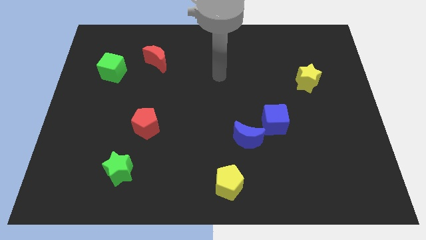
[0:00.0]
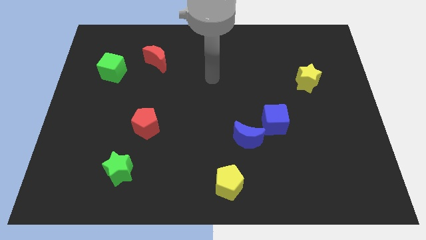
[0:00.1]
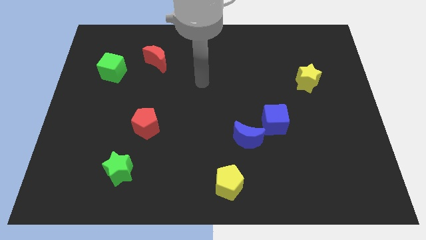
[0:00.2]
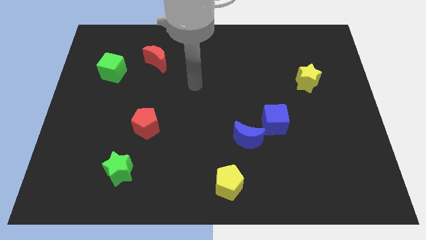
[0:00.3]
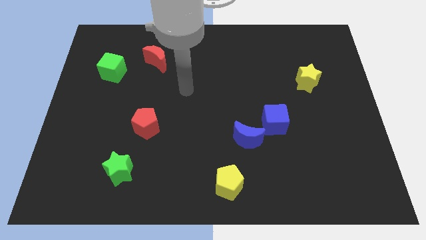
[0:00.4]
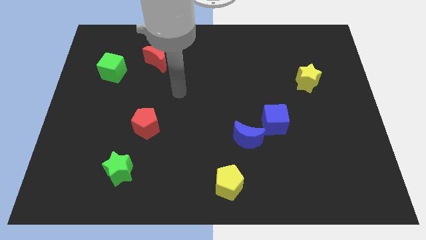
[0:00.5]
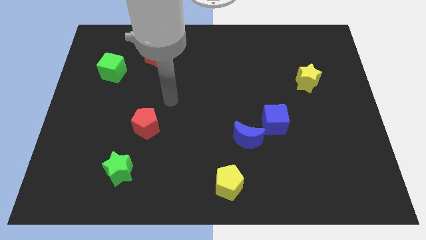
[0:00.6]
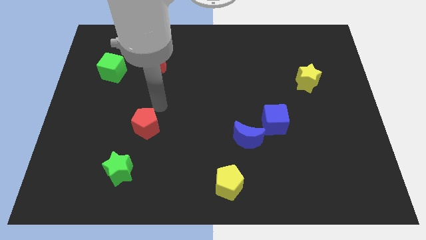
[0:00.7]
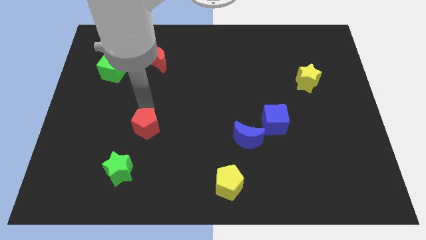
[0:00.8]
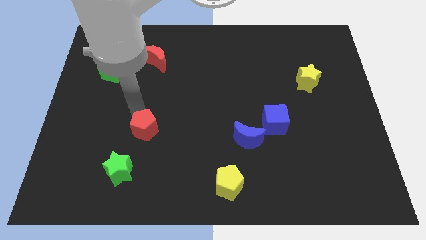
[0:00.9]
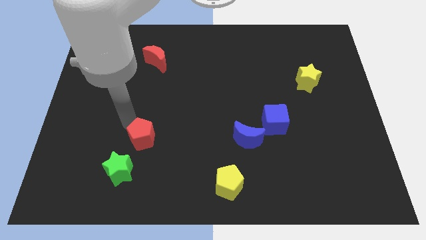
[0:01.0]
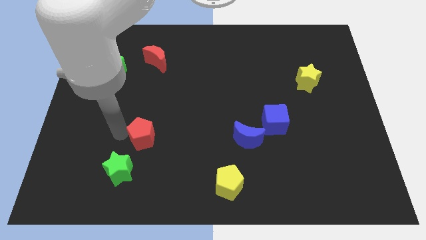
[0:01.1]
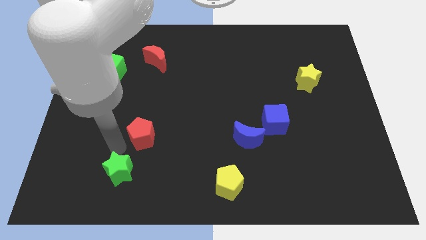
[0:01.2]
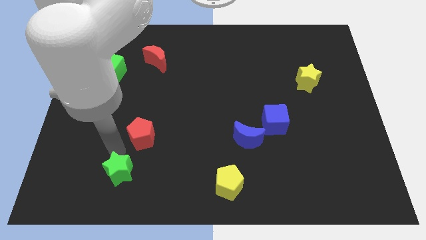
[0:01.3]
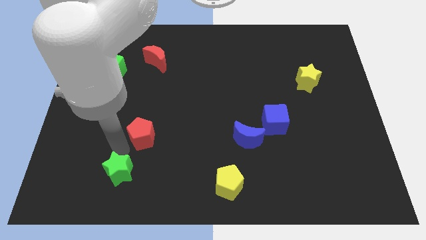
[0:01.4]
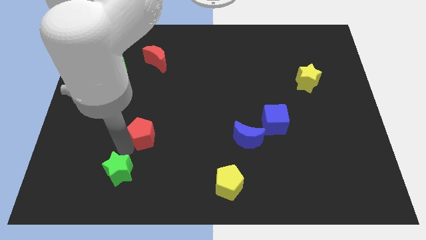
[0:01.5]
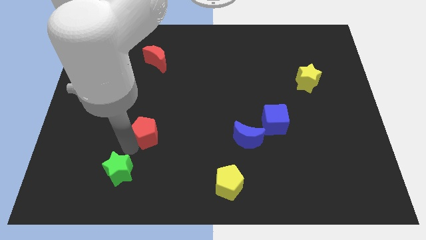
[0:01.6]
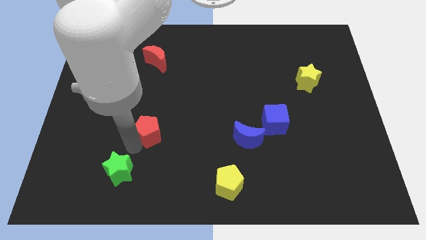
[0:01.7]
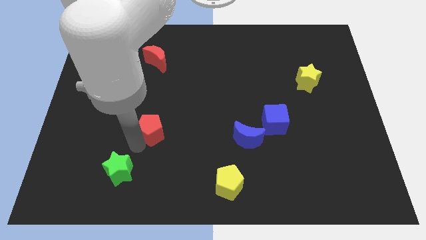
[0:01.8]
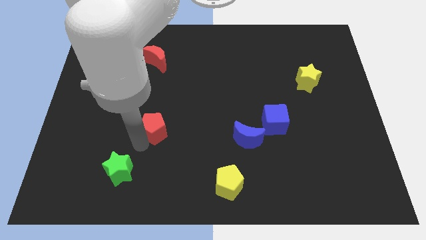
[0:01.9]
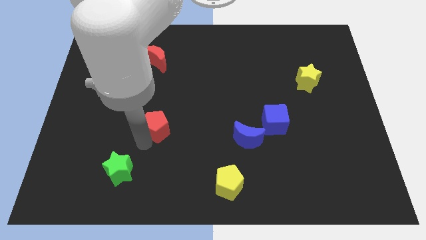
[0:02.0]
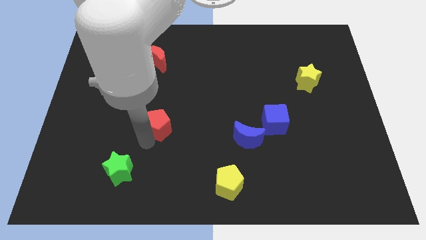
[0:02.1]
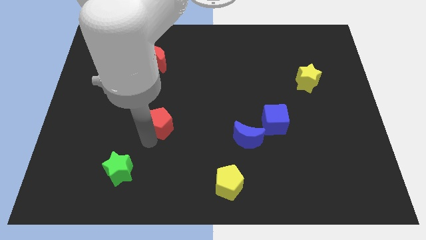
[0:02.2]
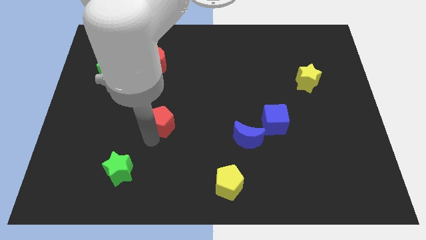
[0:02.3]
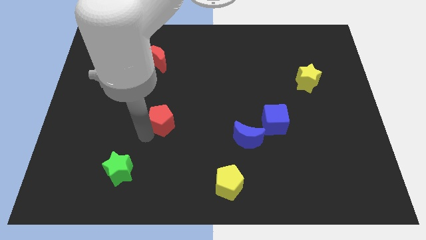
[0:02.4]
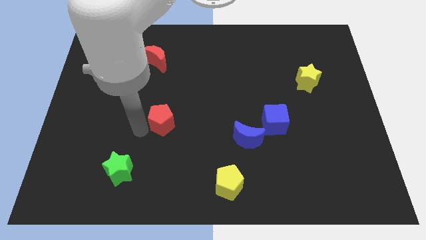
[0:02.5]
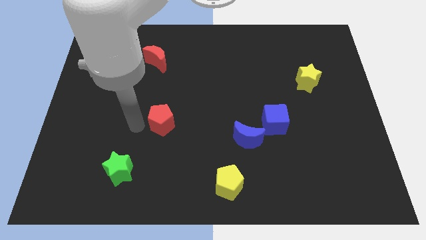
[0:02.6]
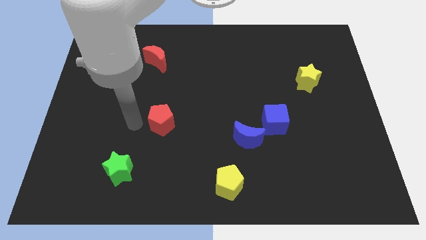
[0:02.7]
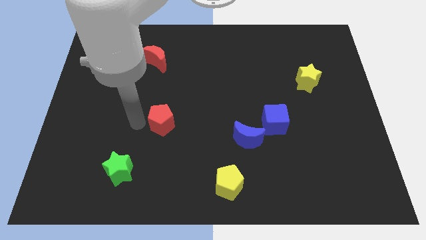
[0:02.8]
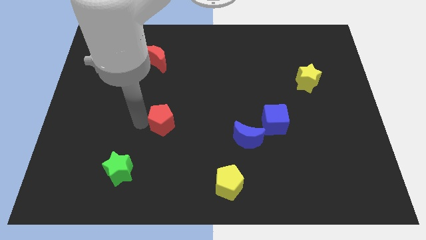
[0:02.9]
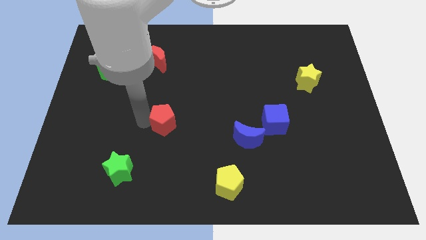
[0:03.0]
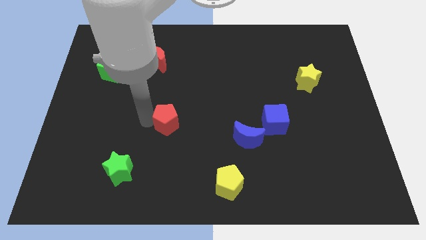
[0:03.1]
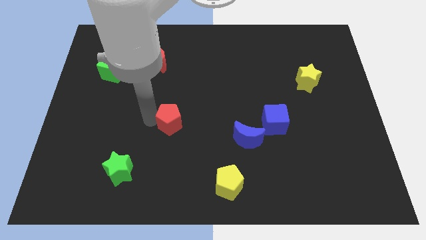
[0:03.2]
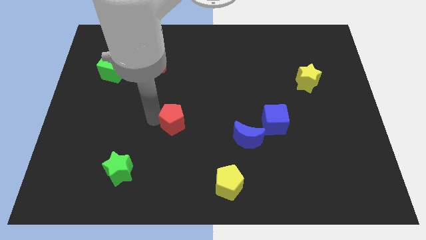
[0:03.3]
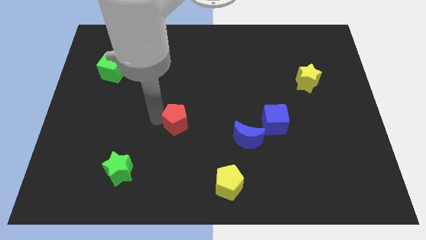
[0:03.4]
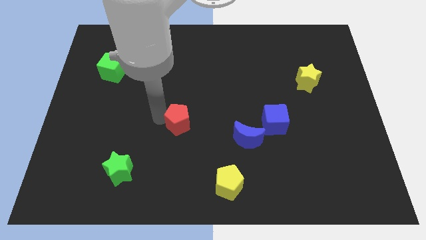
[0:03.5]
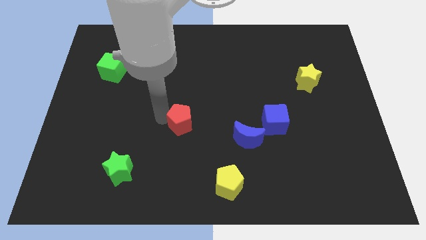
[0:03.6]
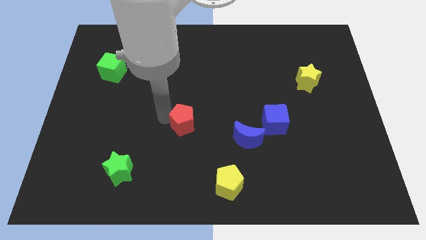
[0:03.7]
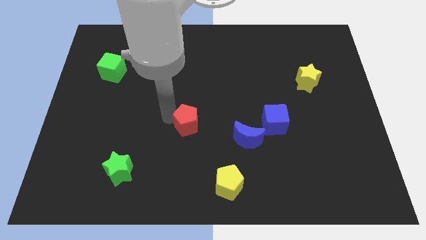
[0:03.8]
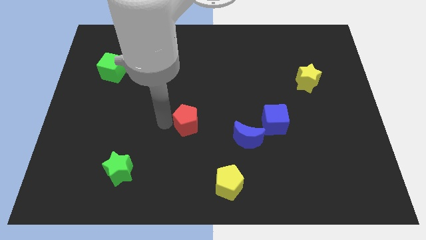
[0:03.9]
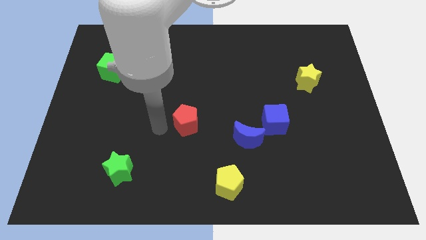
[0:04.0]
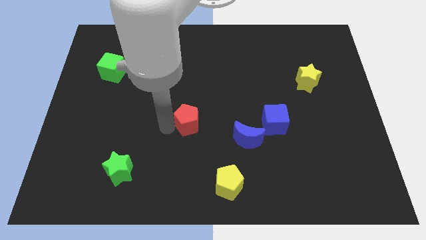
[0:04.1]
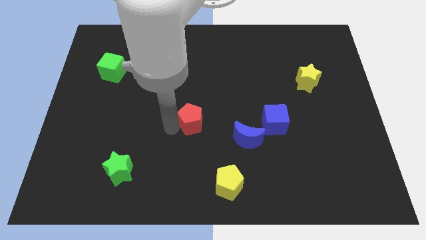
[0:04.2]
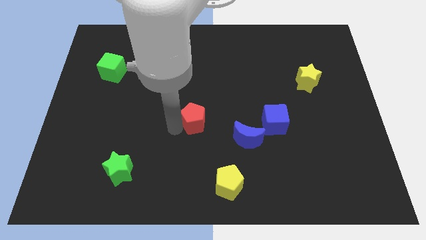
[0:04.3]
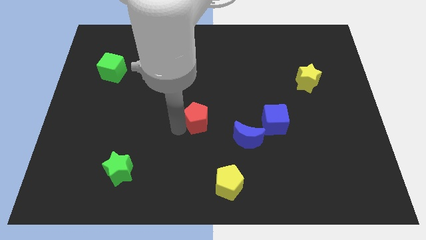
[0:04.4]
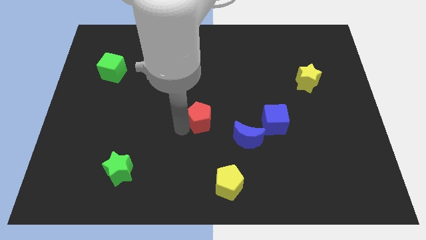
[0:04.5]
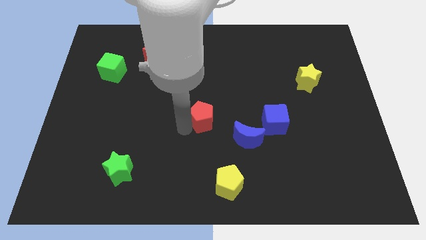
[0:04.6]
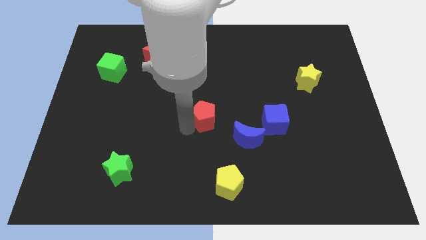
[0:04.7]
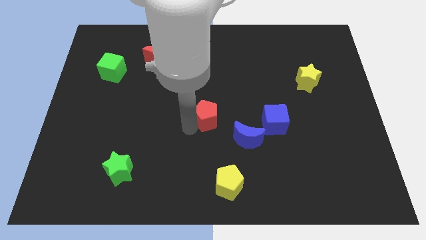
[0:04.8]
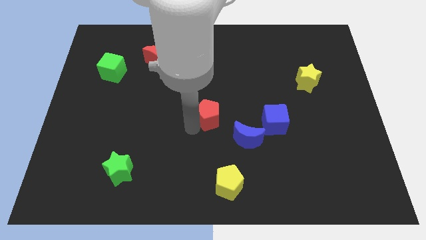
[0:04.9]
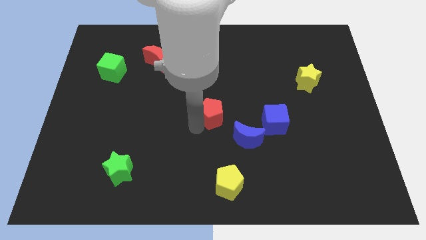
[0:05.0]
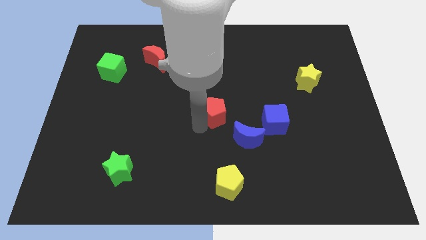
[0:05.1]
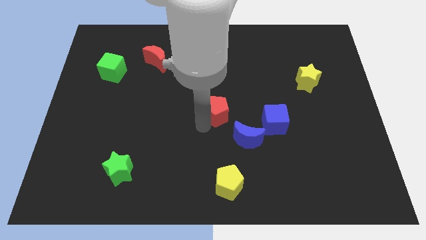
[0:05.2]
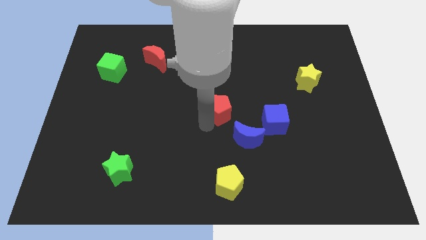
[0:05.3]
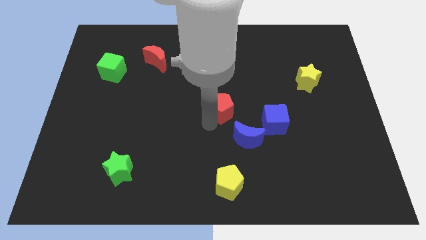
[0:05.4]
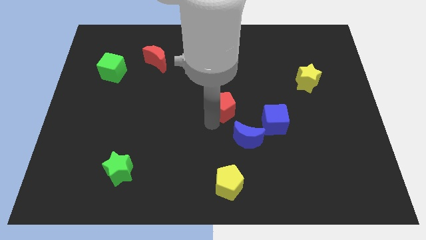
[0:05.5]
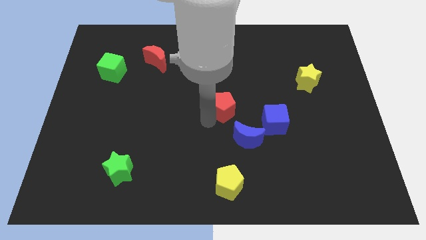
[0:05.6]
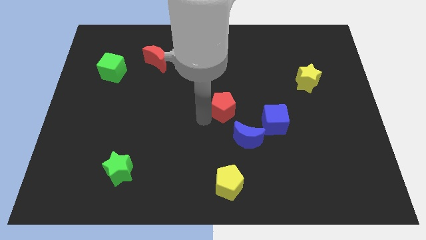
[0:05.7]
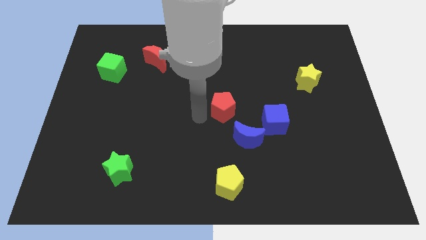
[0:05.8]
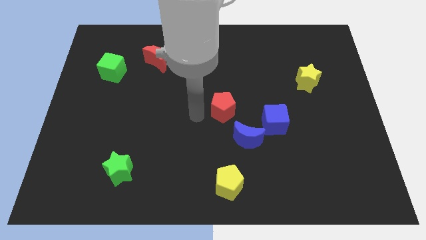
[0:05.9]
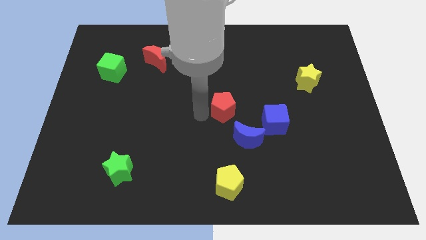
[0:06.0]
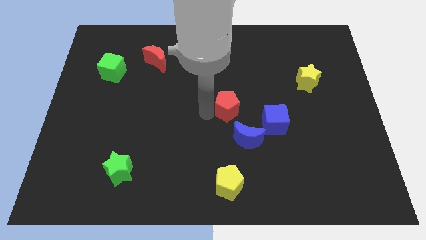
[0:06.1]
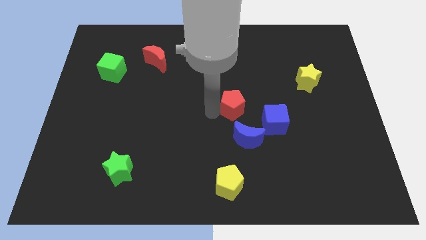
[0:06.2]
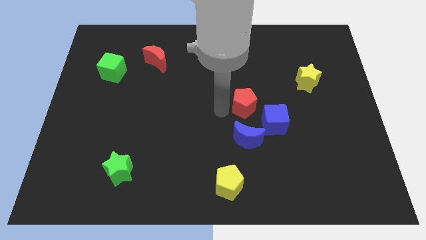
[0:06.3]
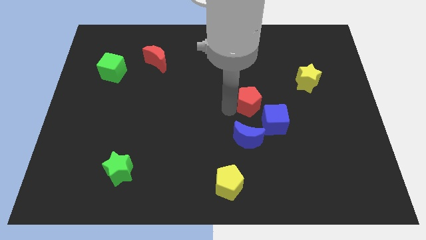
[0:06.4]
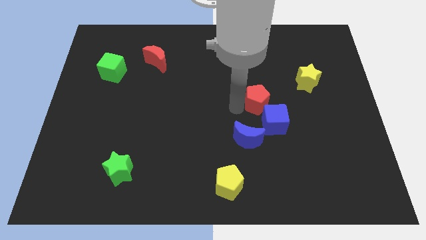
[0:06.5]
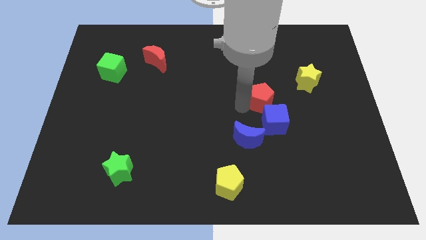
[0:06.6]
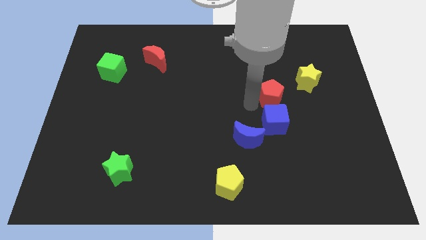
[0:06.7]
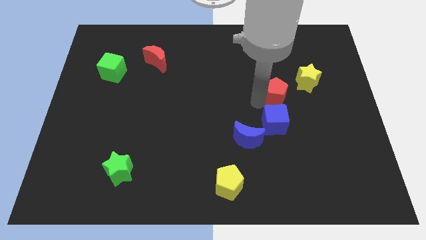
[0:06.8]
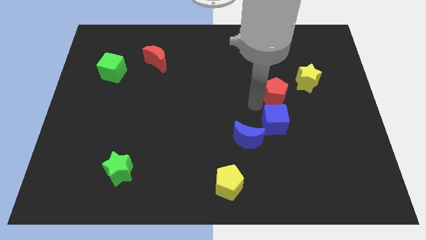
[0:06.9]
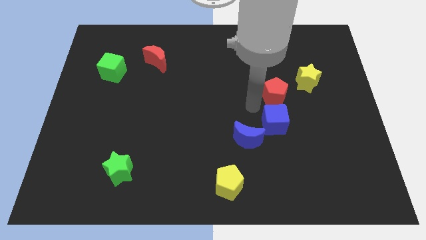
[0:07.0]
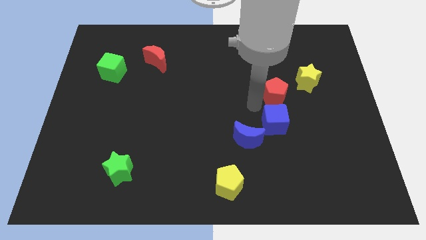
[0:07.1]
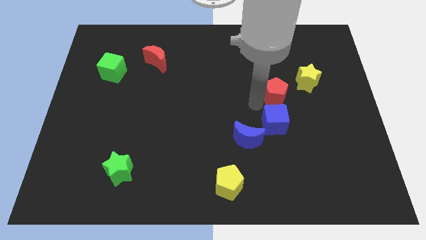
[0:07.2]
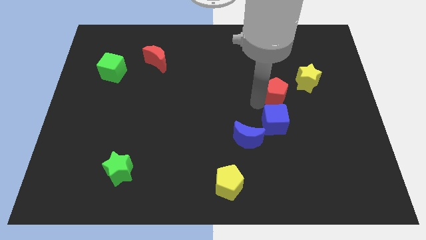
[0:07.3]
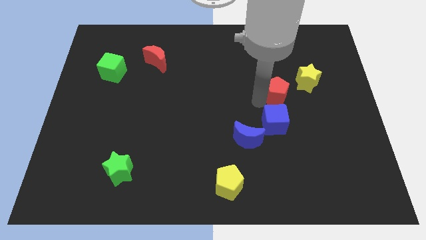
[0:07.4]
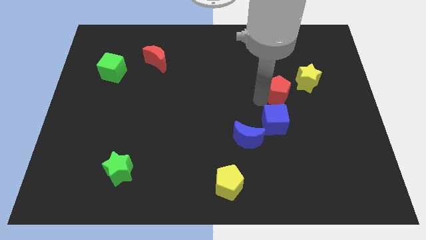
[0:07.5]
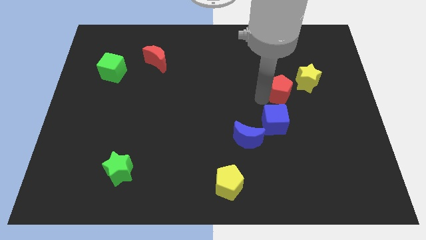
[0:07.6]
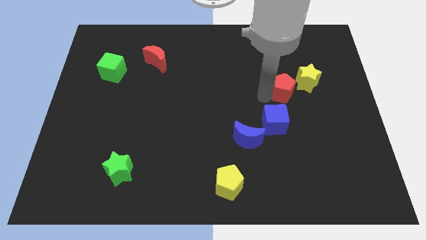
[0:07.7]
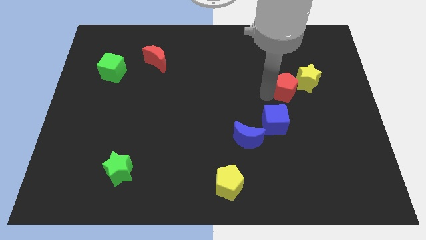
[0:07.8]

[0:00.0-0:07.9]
slide the red pentagon to the yellow star
